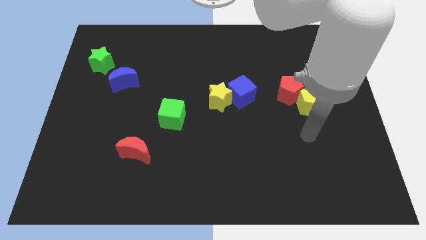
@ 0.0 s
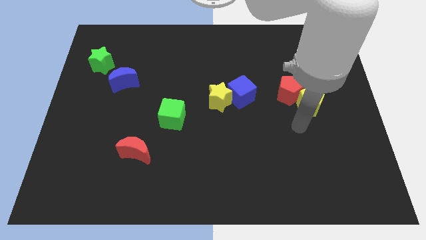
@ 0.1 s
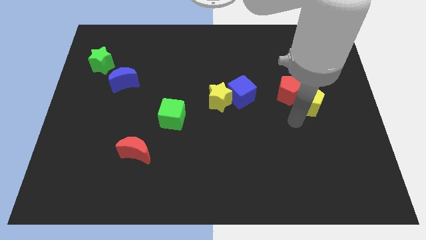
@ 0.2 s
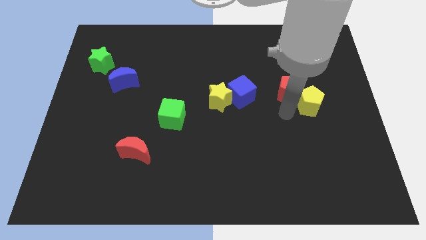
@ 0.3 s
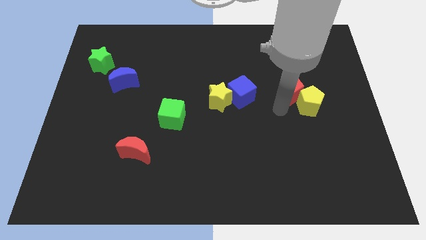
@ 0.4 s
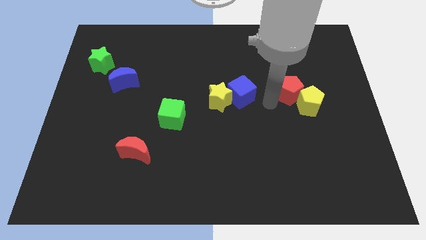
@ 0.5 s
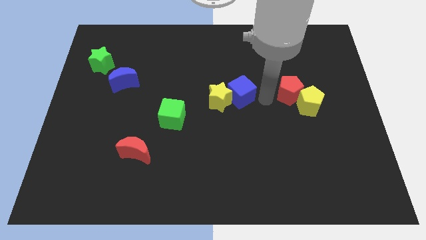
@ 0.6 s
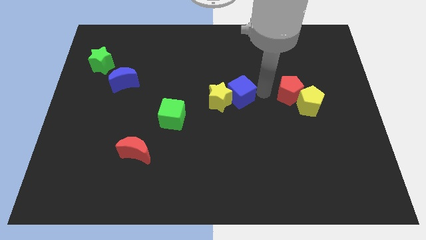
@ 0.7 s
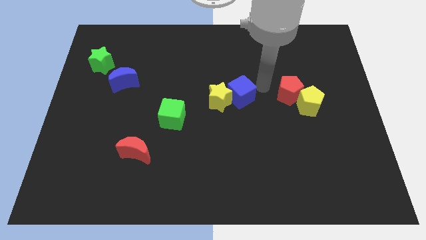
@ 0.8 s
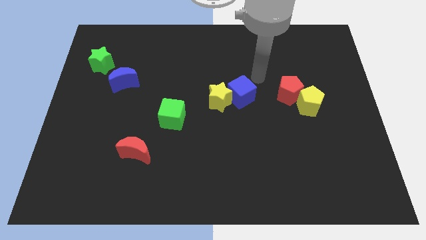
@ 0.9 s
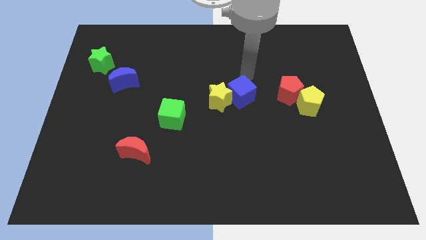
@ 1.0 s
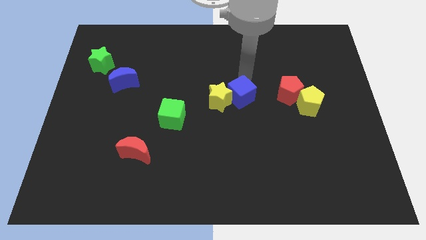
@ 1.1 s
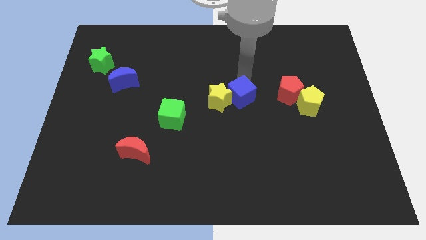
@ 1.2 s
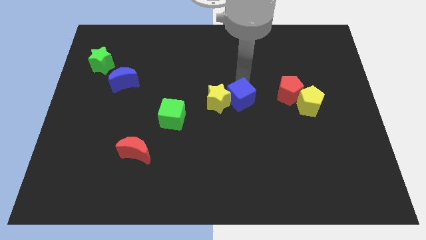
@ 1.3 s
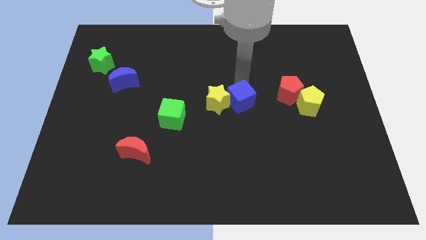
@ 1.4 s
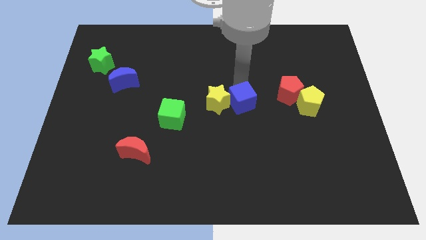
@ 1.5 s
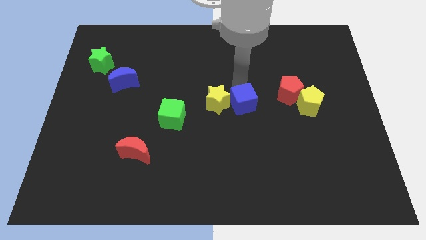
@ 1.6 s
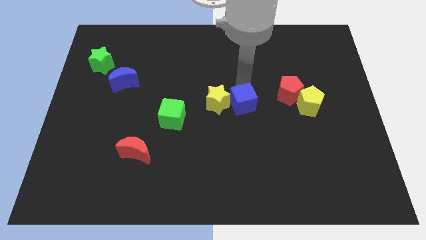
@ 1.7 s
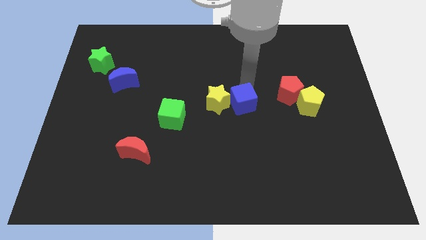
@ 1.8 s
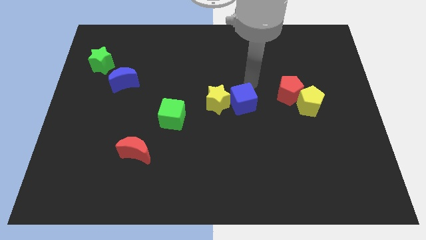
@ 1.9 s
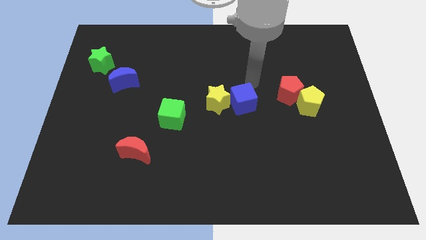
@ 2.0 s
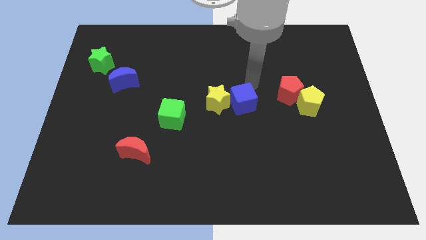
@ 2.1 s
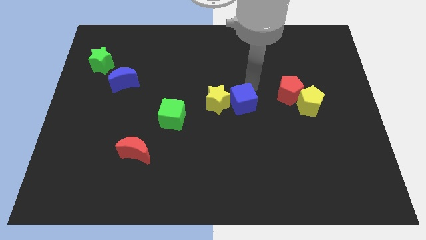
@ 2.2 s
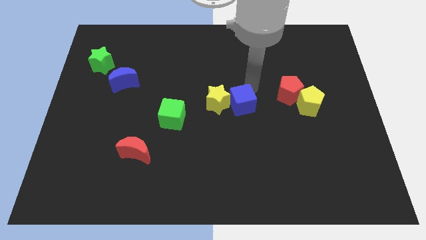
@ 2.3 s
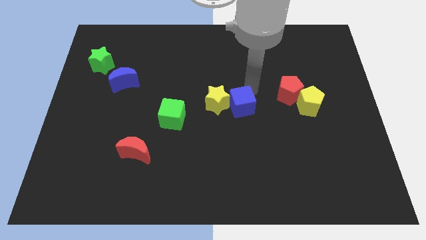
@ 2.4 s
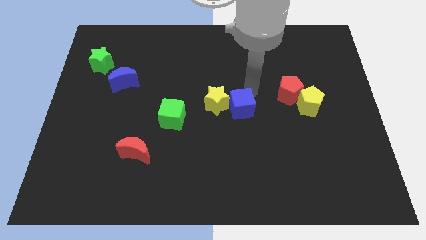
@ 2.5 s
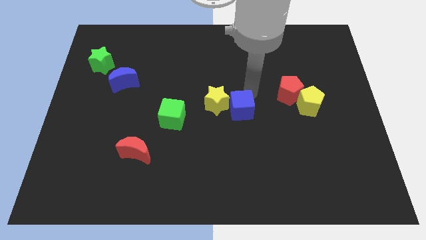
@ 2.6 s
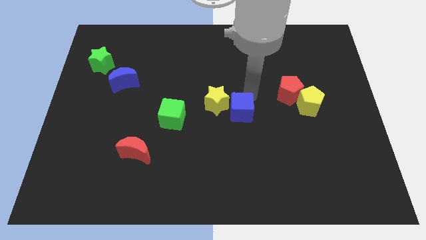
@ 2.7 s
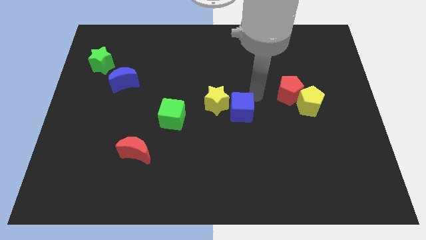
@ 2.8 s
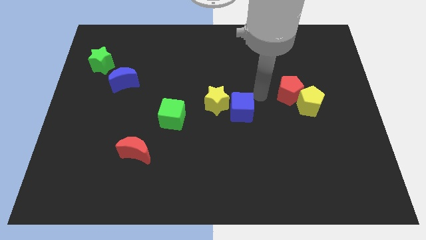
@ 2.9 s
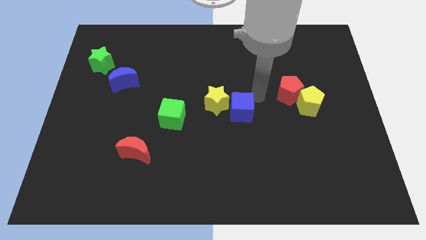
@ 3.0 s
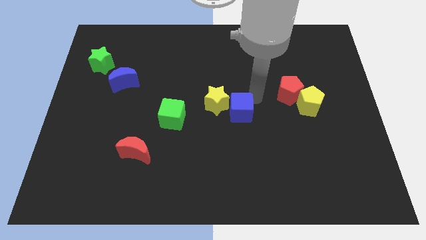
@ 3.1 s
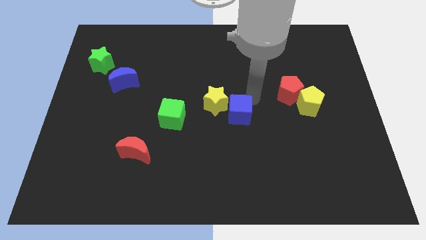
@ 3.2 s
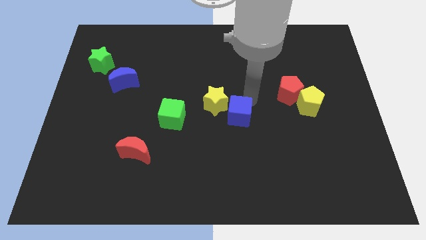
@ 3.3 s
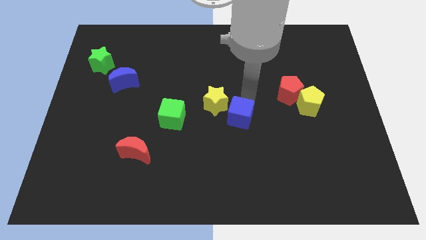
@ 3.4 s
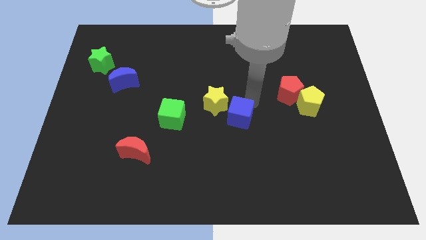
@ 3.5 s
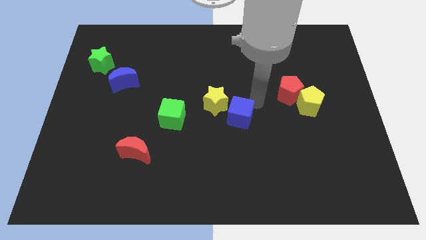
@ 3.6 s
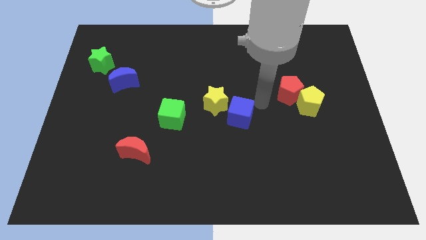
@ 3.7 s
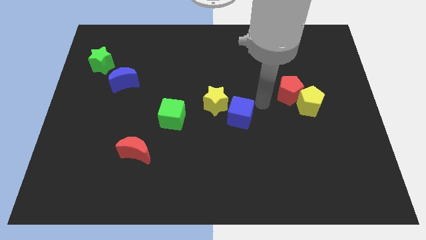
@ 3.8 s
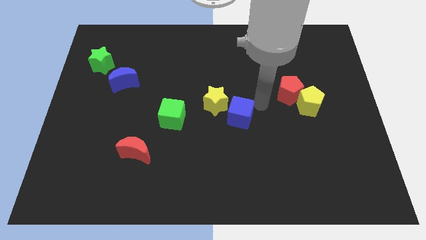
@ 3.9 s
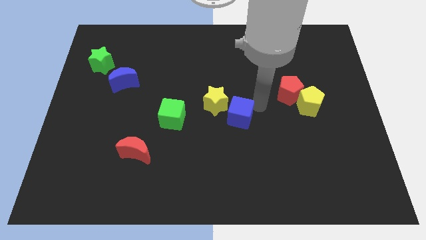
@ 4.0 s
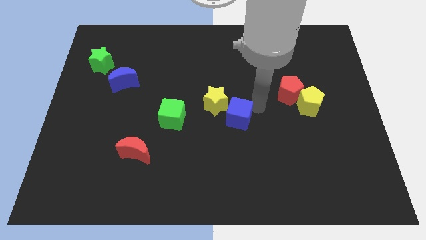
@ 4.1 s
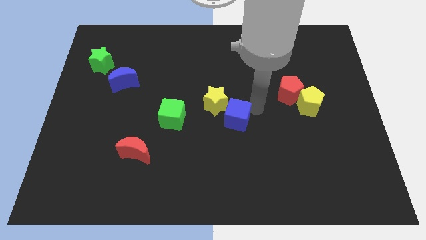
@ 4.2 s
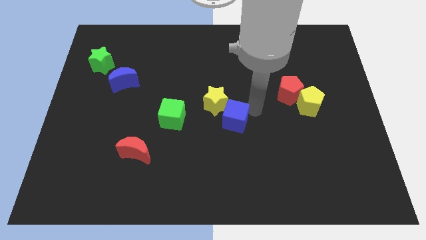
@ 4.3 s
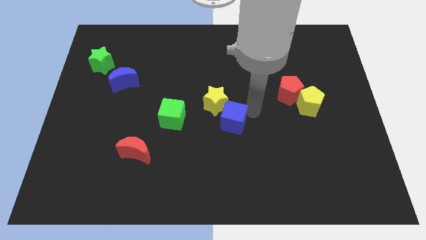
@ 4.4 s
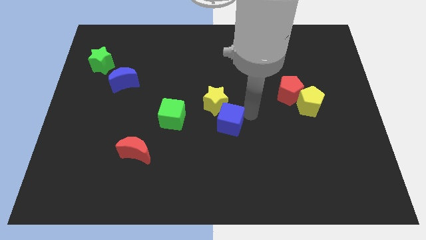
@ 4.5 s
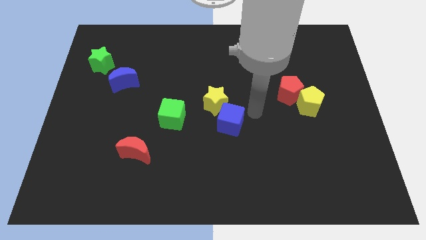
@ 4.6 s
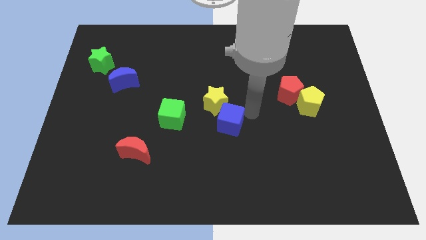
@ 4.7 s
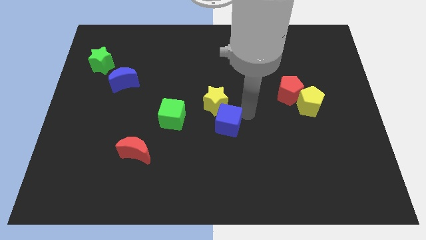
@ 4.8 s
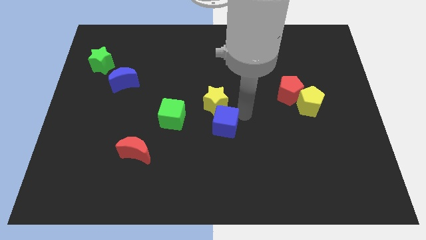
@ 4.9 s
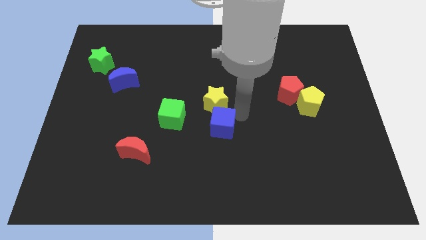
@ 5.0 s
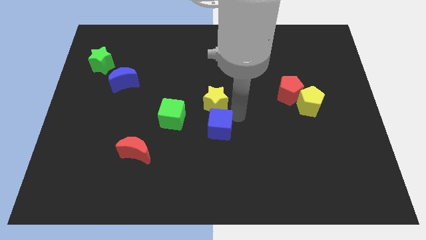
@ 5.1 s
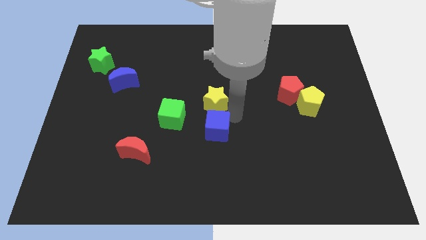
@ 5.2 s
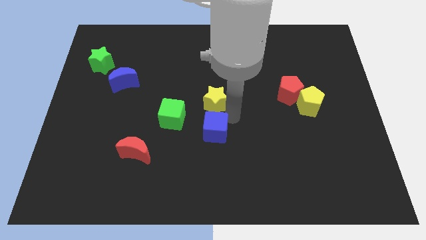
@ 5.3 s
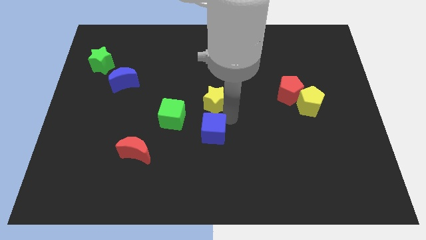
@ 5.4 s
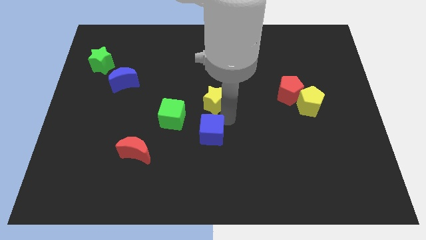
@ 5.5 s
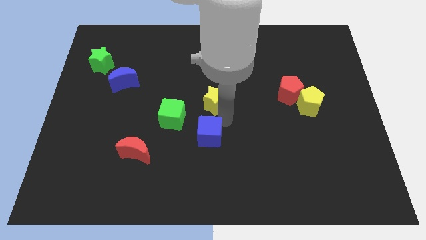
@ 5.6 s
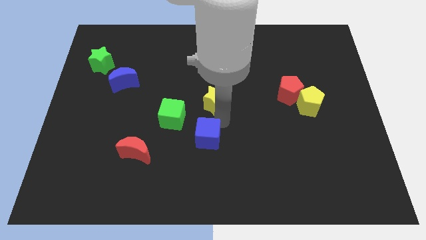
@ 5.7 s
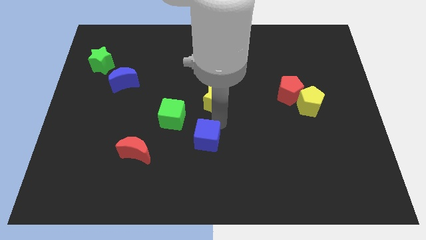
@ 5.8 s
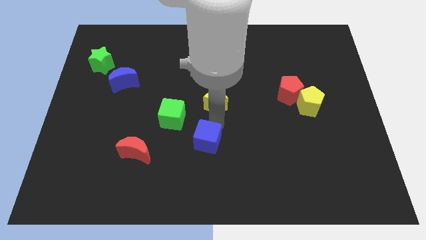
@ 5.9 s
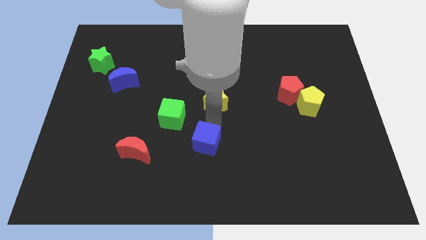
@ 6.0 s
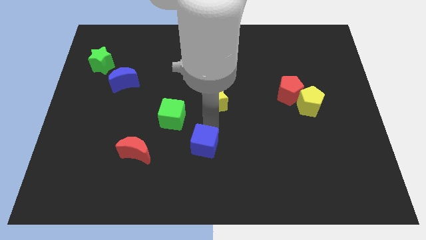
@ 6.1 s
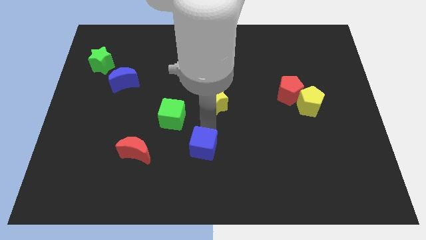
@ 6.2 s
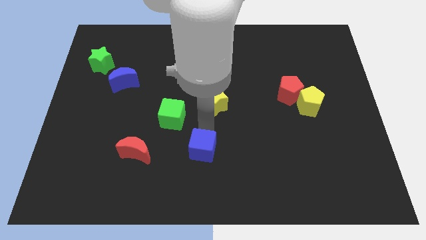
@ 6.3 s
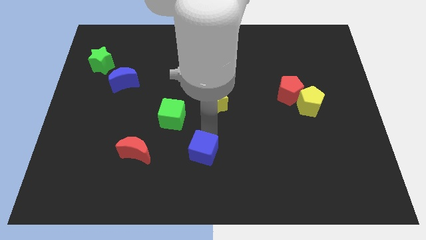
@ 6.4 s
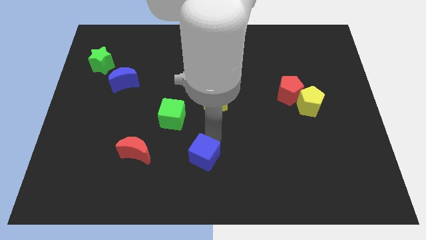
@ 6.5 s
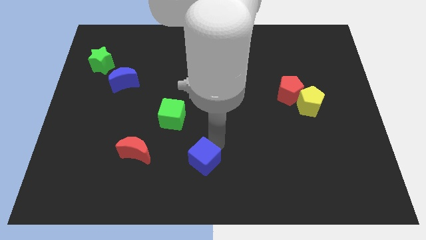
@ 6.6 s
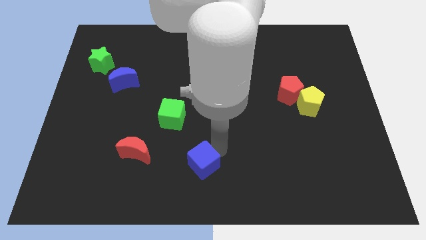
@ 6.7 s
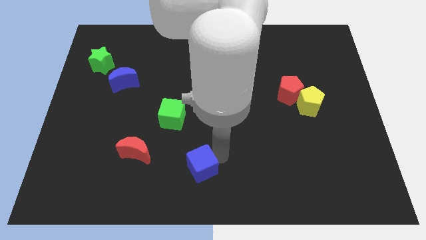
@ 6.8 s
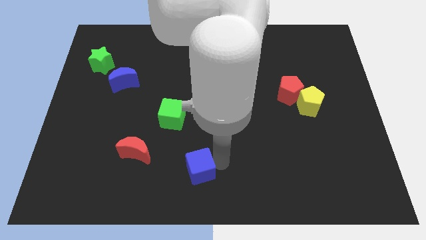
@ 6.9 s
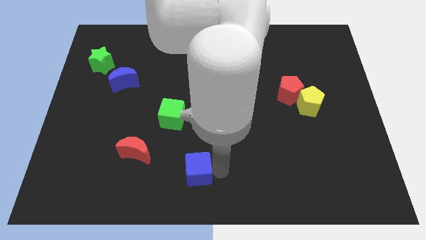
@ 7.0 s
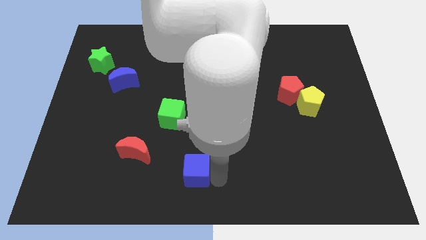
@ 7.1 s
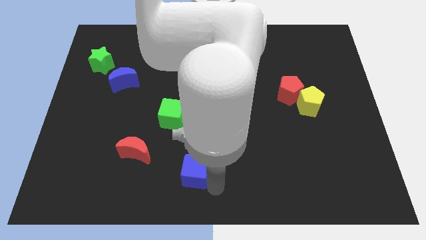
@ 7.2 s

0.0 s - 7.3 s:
slide the blue cube downwards and then left

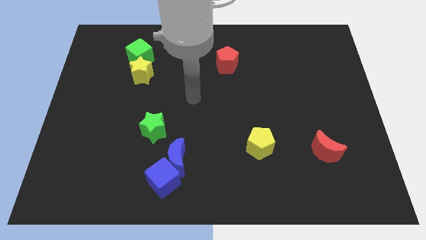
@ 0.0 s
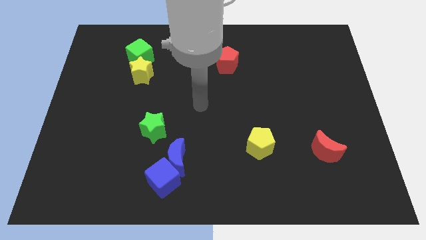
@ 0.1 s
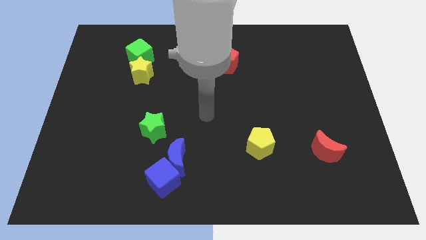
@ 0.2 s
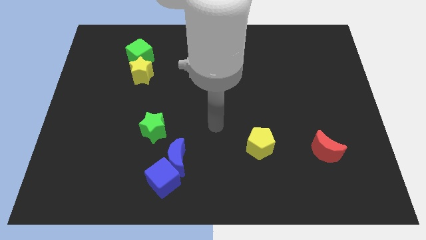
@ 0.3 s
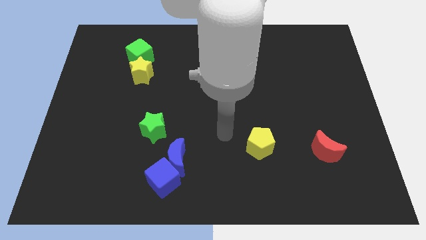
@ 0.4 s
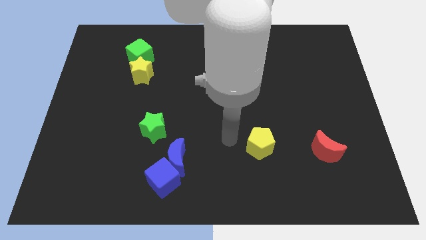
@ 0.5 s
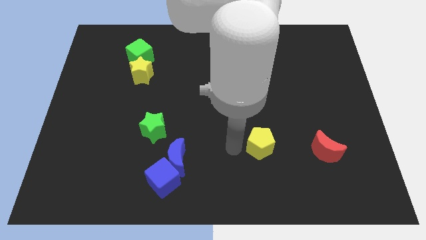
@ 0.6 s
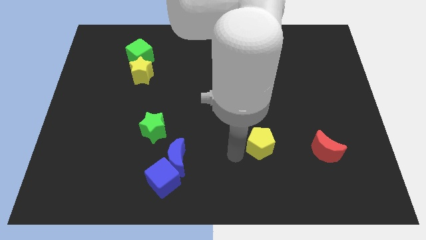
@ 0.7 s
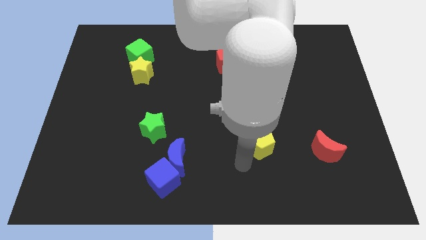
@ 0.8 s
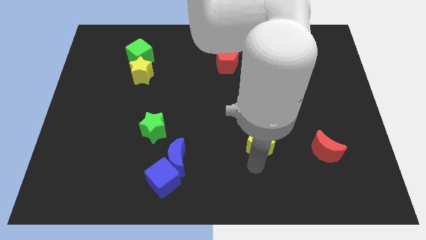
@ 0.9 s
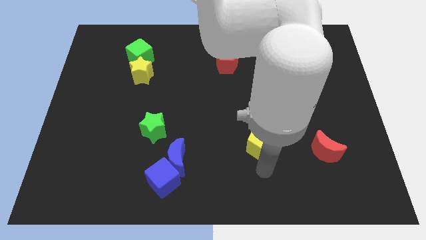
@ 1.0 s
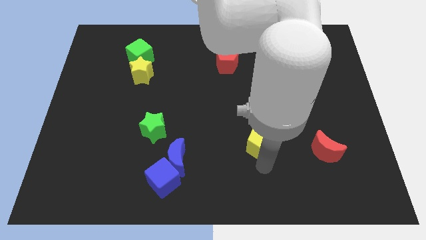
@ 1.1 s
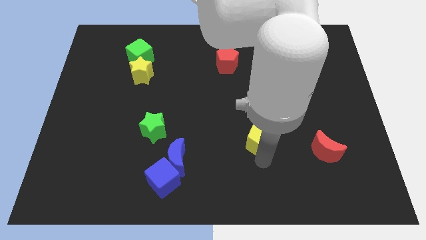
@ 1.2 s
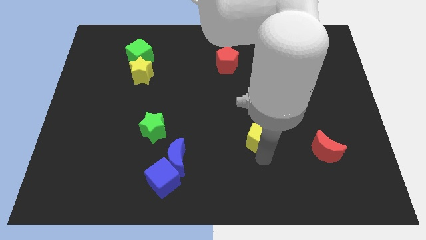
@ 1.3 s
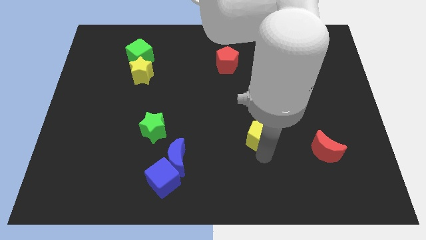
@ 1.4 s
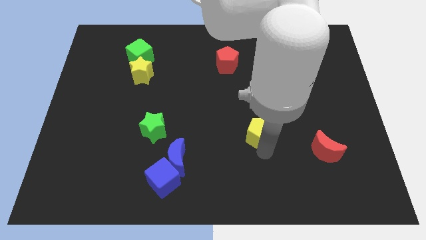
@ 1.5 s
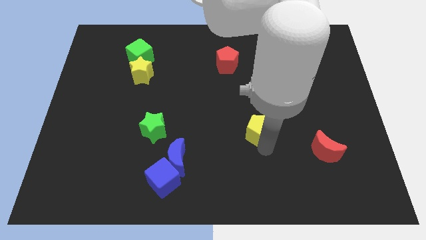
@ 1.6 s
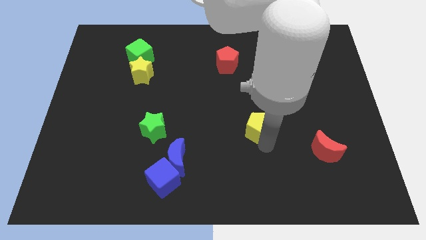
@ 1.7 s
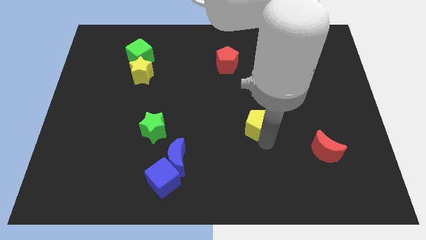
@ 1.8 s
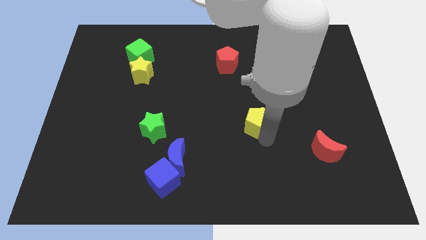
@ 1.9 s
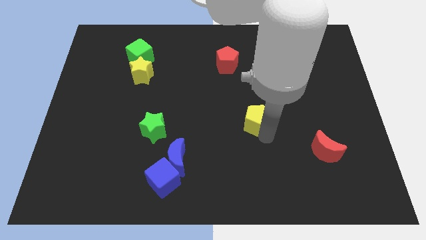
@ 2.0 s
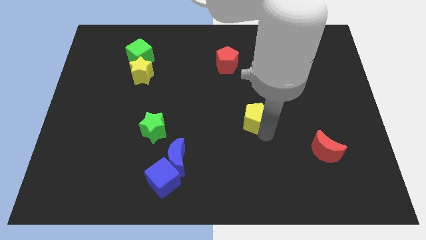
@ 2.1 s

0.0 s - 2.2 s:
move the yellow pentagon up slightly
